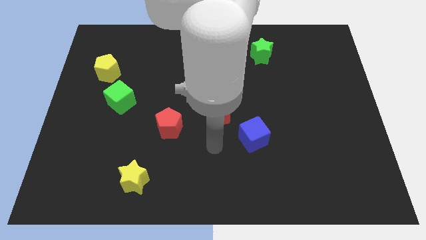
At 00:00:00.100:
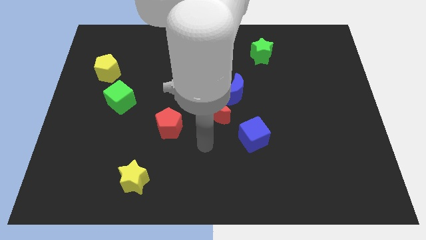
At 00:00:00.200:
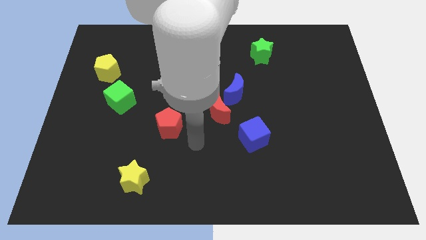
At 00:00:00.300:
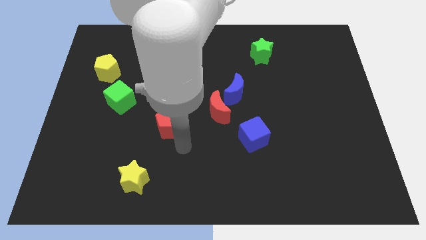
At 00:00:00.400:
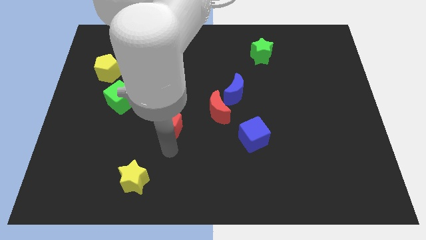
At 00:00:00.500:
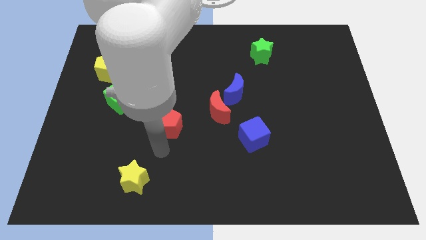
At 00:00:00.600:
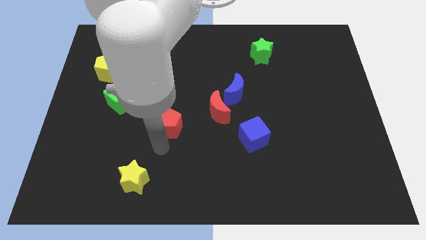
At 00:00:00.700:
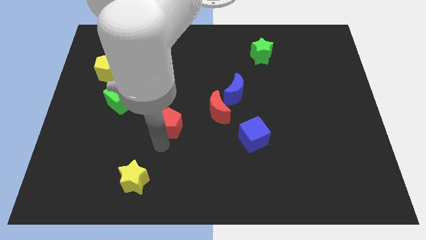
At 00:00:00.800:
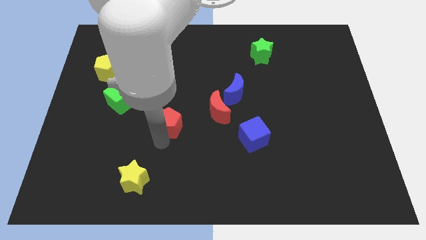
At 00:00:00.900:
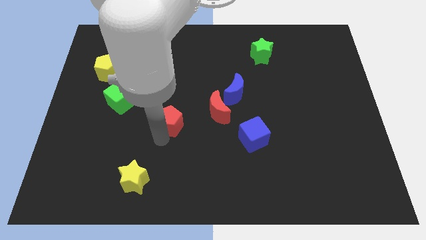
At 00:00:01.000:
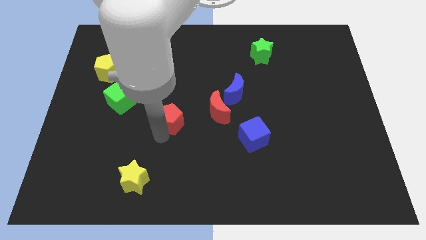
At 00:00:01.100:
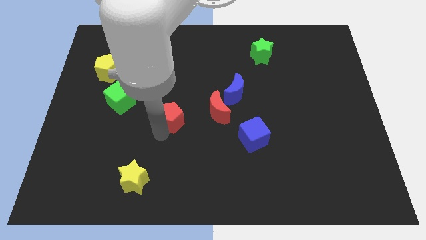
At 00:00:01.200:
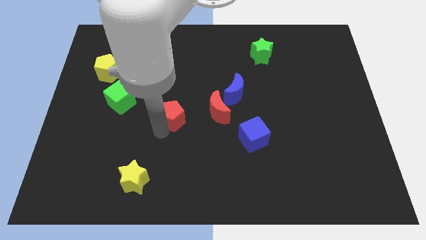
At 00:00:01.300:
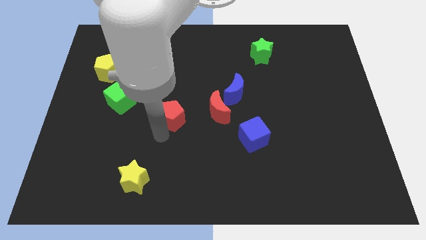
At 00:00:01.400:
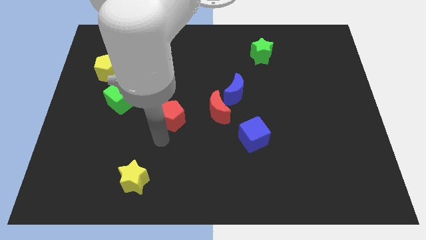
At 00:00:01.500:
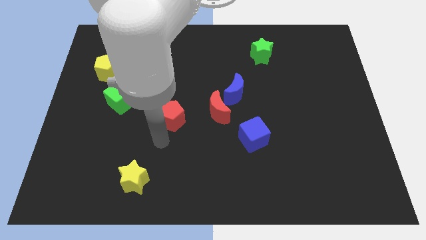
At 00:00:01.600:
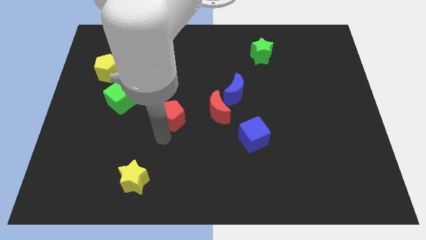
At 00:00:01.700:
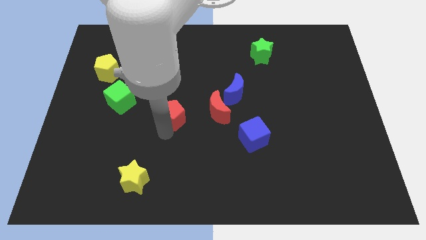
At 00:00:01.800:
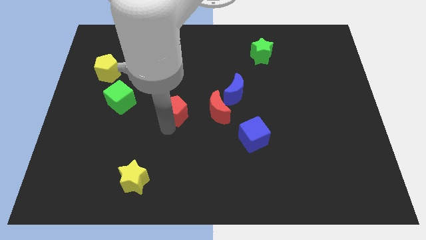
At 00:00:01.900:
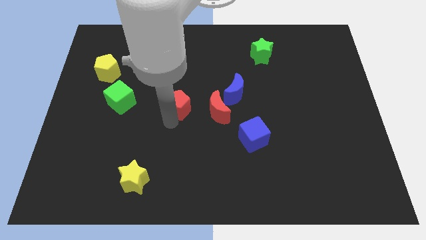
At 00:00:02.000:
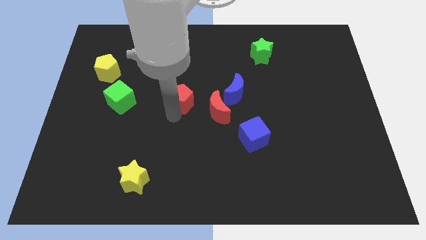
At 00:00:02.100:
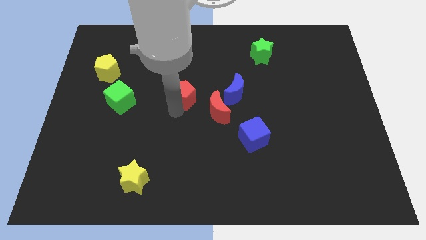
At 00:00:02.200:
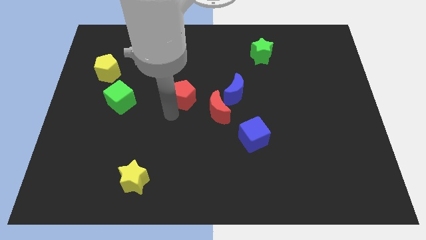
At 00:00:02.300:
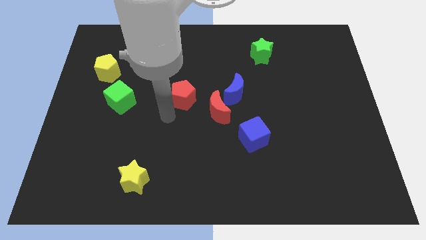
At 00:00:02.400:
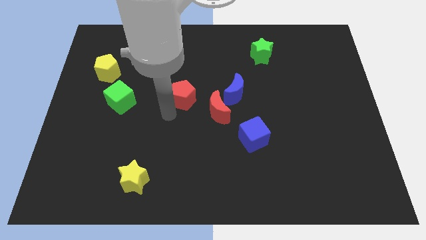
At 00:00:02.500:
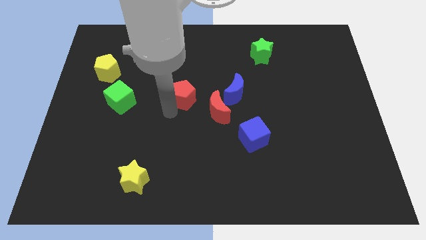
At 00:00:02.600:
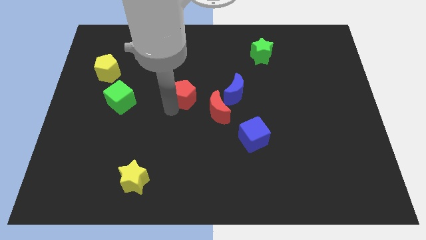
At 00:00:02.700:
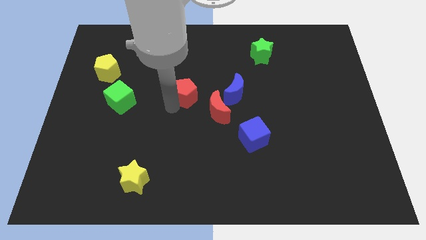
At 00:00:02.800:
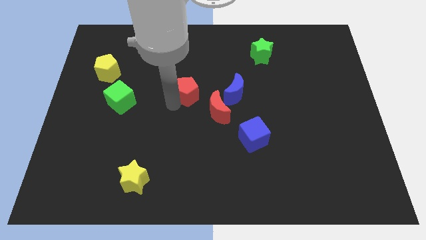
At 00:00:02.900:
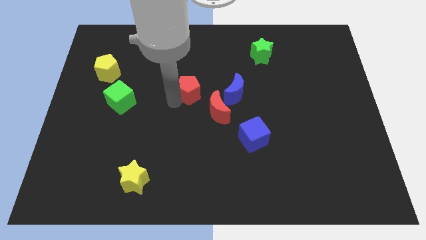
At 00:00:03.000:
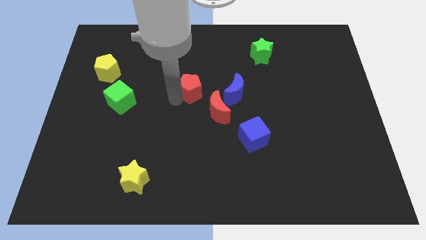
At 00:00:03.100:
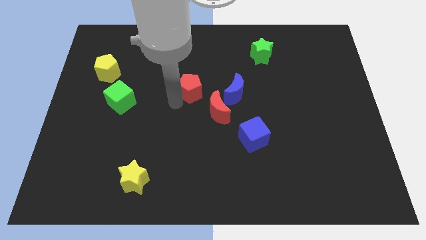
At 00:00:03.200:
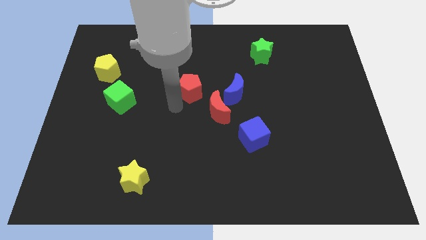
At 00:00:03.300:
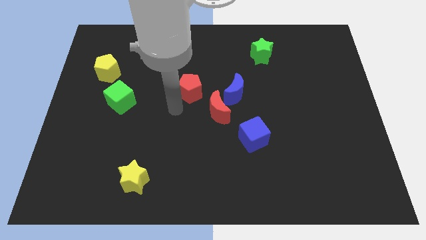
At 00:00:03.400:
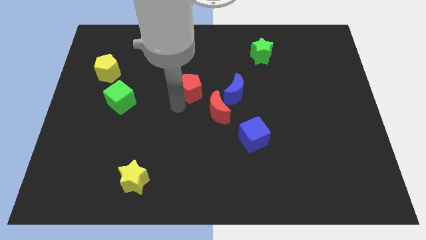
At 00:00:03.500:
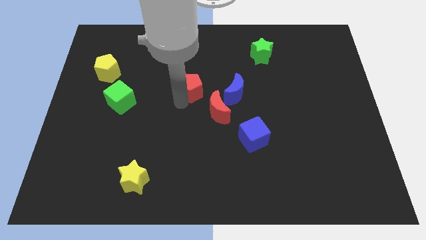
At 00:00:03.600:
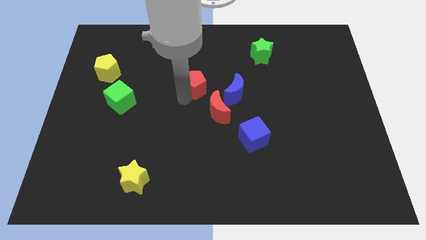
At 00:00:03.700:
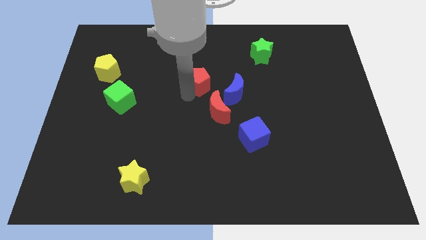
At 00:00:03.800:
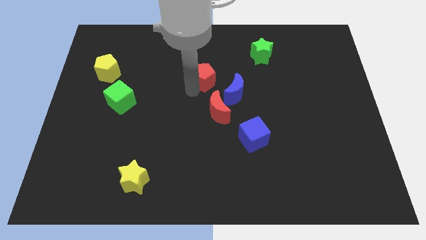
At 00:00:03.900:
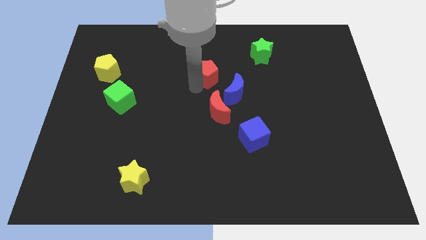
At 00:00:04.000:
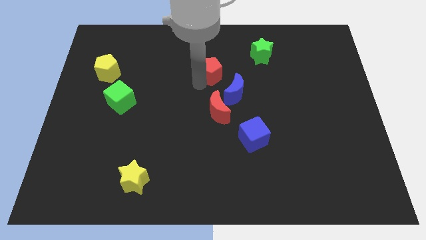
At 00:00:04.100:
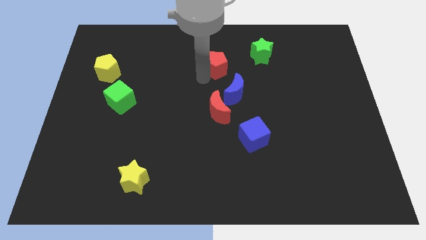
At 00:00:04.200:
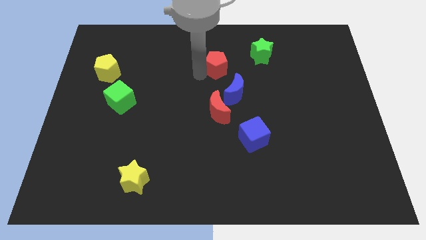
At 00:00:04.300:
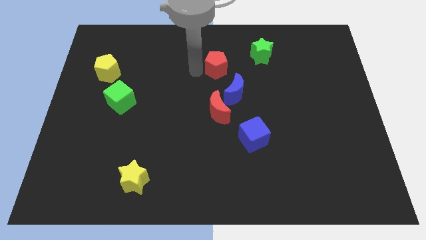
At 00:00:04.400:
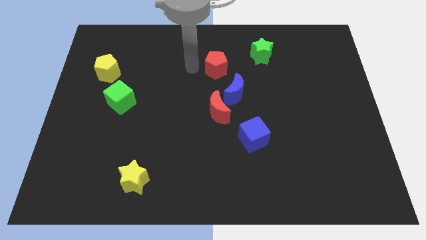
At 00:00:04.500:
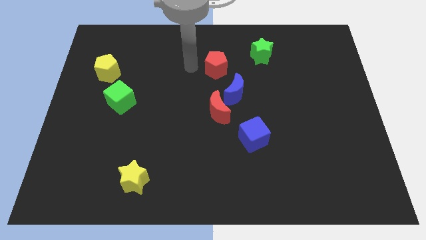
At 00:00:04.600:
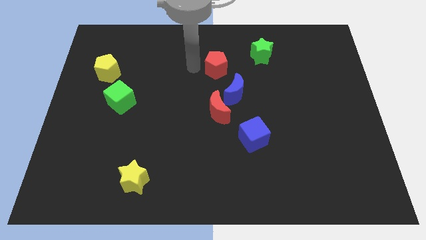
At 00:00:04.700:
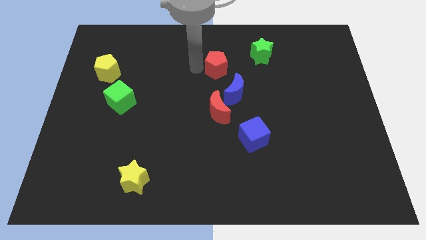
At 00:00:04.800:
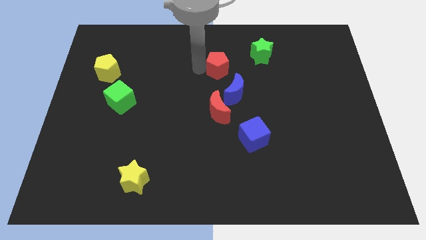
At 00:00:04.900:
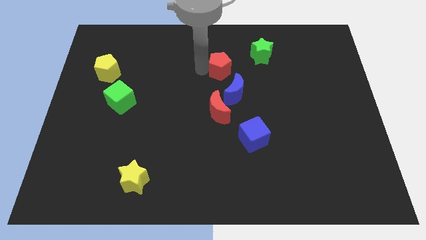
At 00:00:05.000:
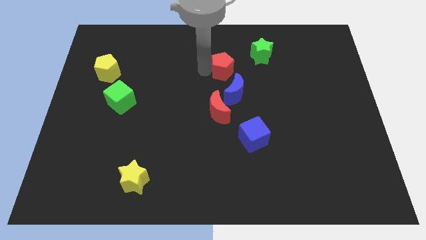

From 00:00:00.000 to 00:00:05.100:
push the red pentagon to the bottom left of the green star

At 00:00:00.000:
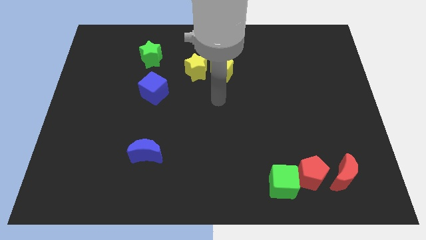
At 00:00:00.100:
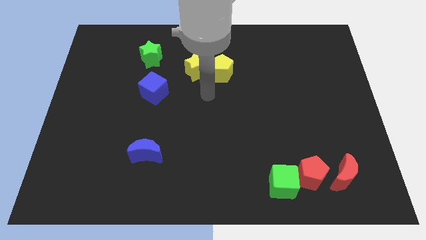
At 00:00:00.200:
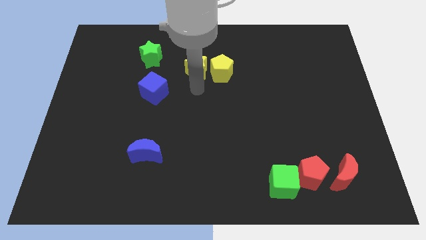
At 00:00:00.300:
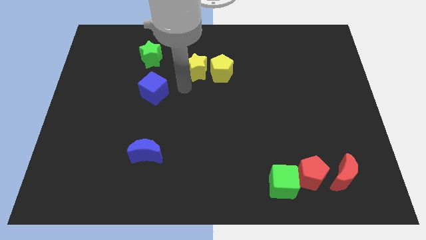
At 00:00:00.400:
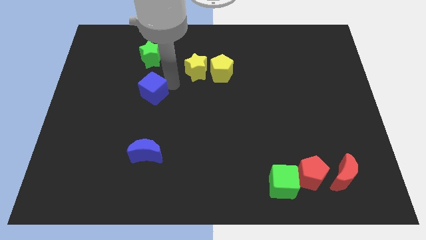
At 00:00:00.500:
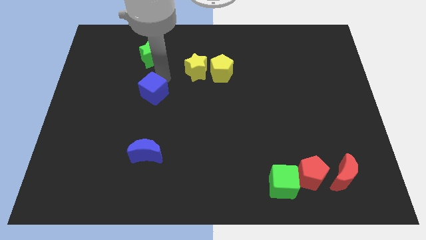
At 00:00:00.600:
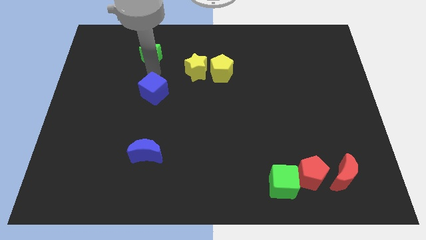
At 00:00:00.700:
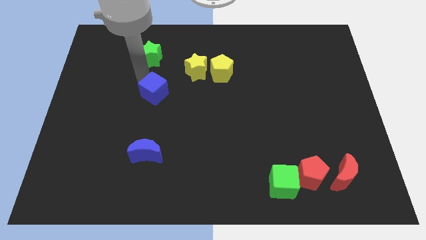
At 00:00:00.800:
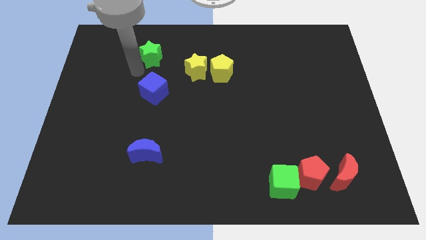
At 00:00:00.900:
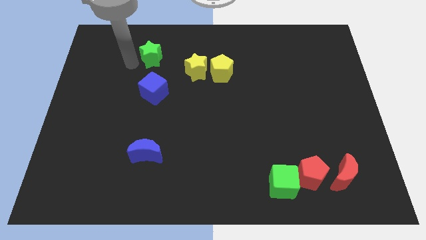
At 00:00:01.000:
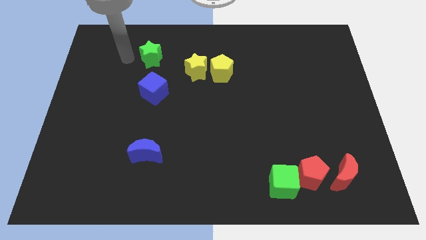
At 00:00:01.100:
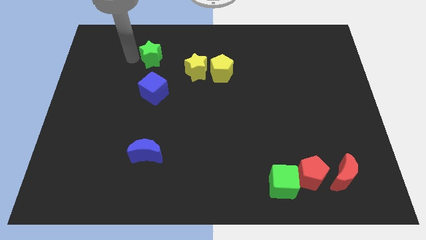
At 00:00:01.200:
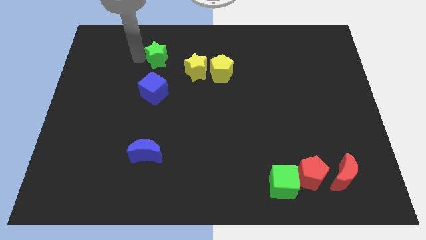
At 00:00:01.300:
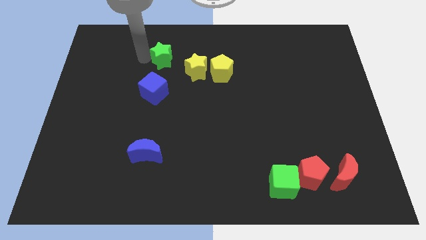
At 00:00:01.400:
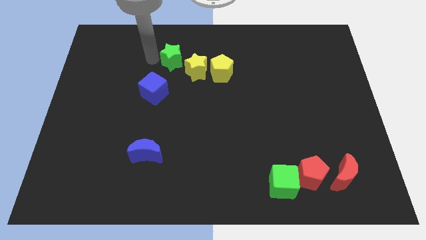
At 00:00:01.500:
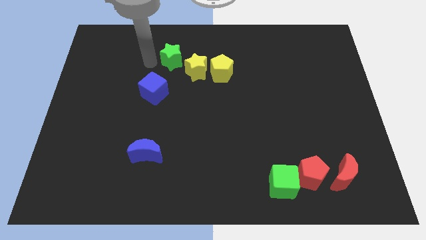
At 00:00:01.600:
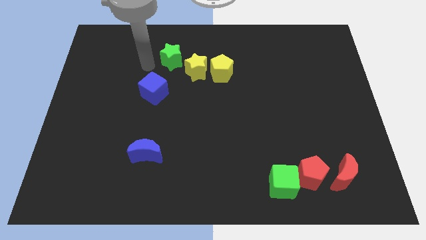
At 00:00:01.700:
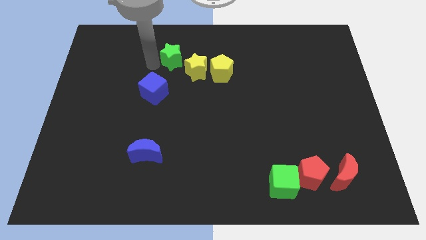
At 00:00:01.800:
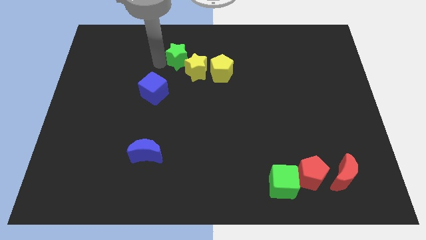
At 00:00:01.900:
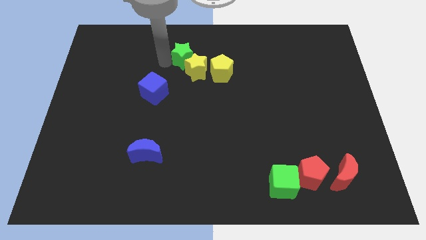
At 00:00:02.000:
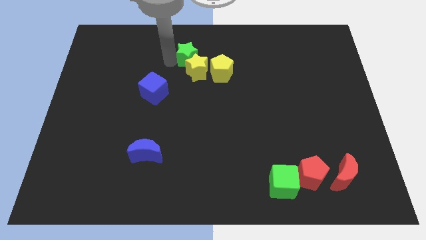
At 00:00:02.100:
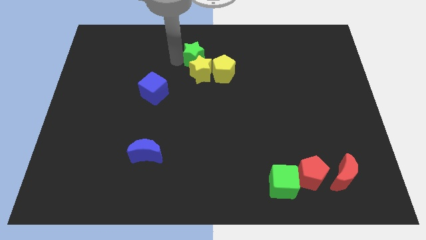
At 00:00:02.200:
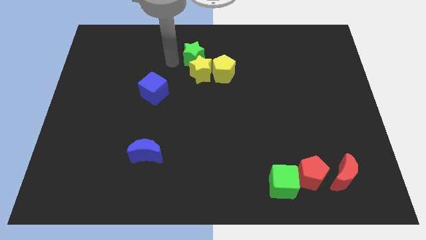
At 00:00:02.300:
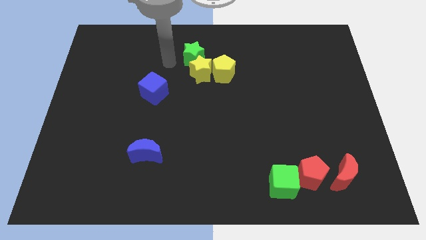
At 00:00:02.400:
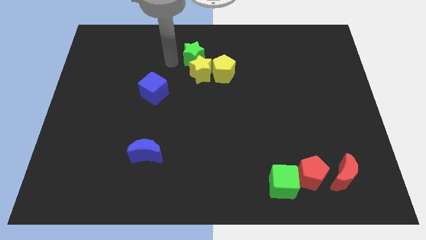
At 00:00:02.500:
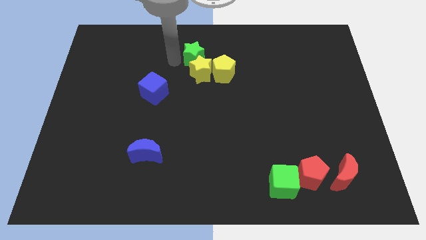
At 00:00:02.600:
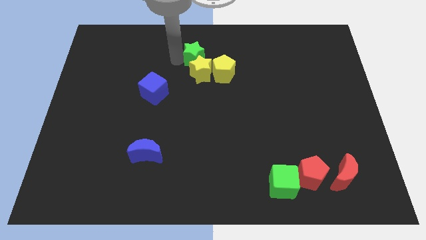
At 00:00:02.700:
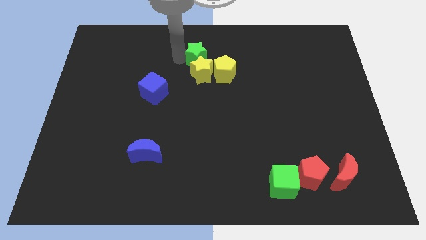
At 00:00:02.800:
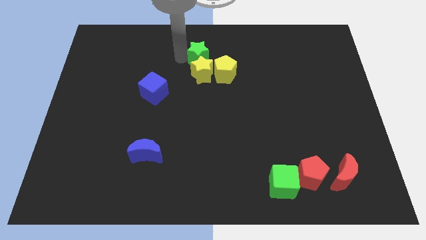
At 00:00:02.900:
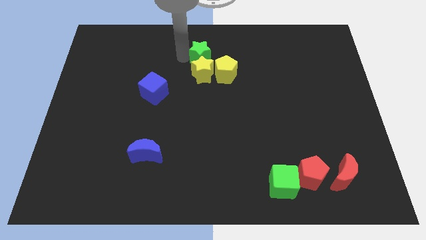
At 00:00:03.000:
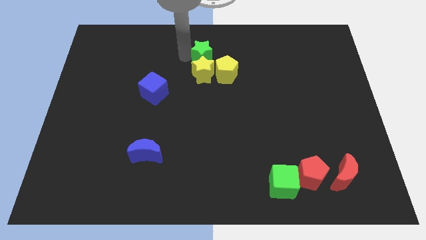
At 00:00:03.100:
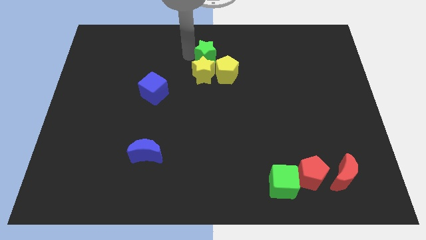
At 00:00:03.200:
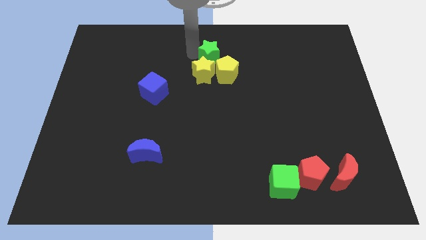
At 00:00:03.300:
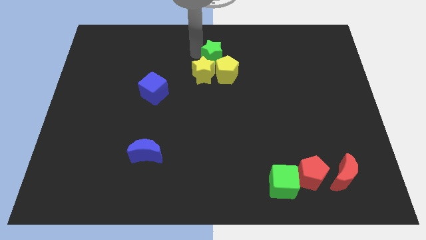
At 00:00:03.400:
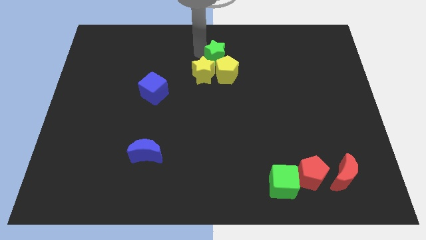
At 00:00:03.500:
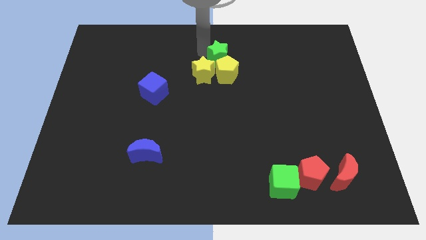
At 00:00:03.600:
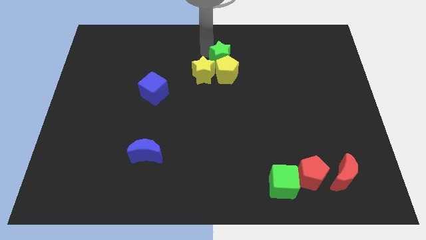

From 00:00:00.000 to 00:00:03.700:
move the green star to the top right side of the yellow pentagon
